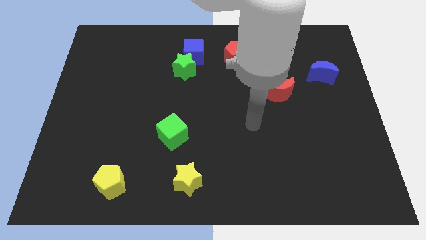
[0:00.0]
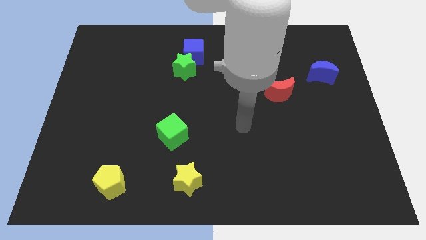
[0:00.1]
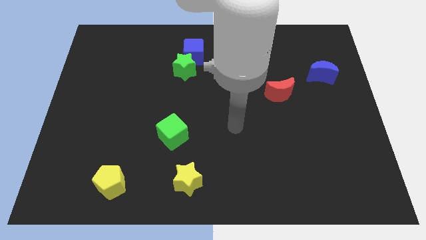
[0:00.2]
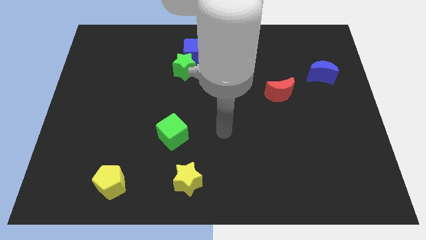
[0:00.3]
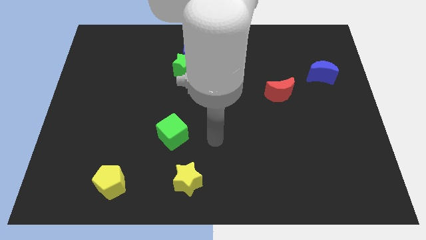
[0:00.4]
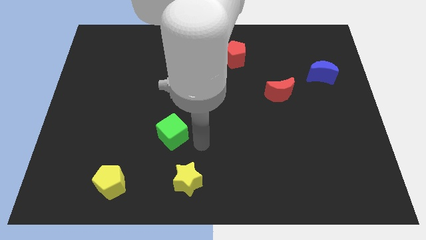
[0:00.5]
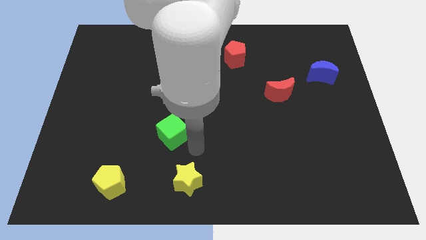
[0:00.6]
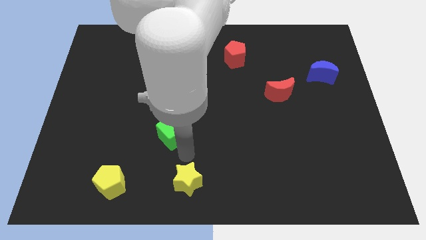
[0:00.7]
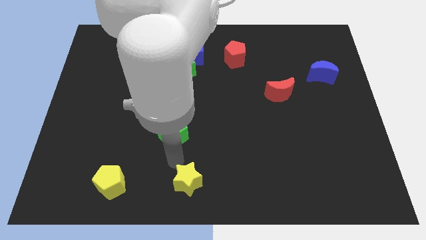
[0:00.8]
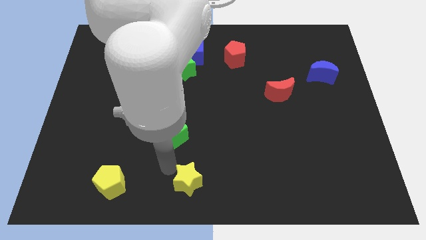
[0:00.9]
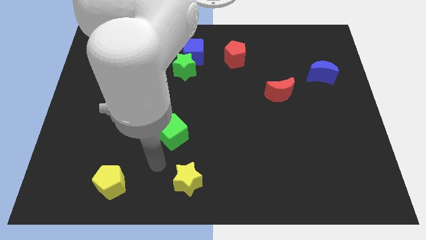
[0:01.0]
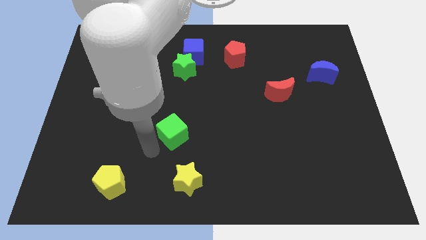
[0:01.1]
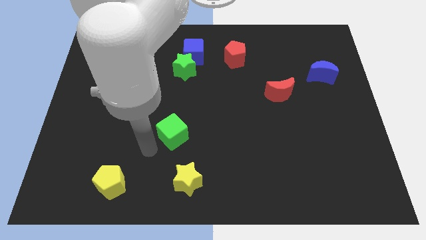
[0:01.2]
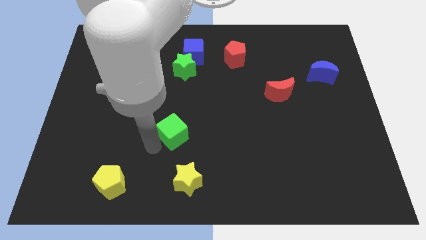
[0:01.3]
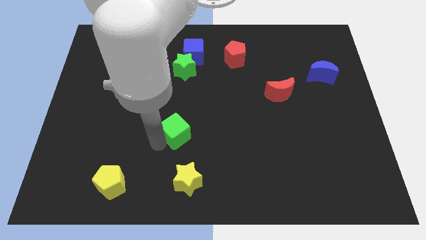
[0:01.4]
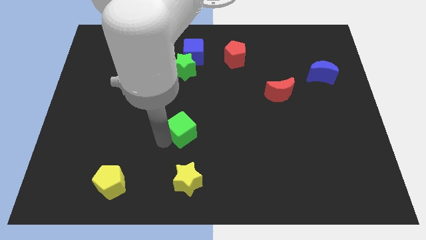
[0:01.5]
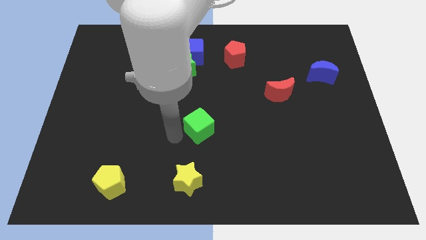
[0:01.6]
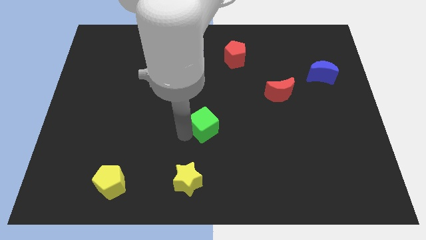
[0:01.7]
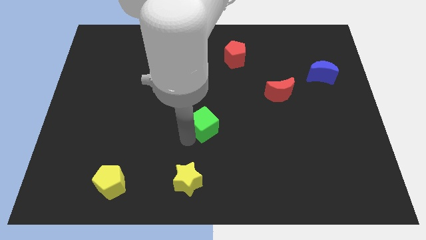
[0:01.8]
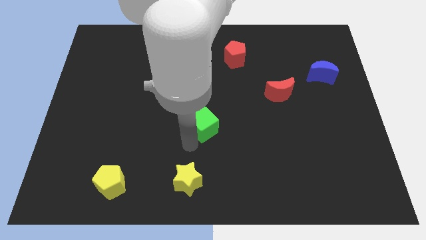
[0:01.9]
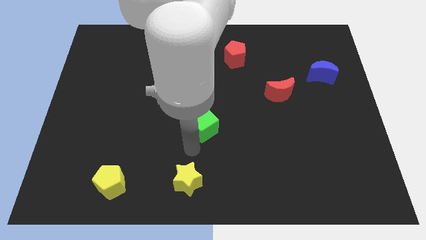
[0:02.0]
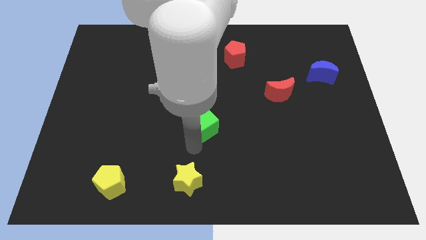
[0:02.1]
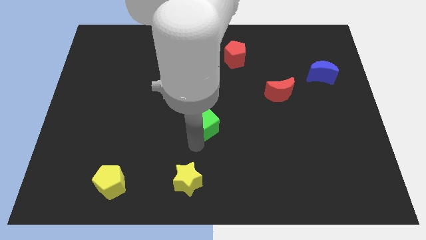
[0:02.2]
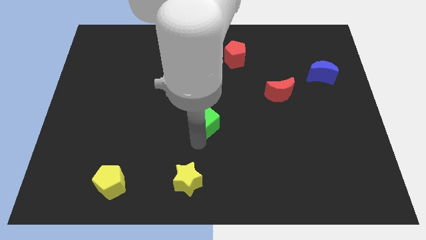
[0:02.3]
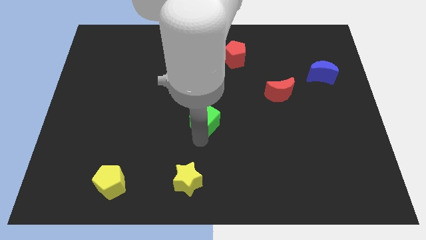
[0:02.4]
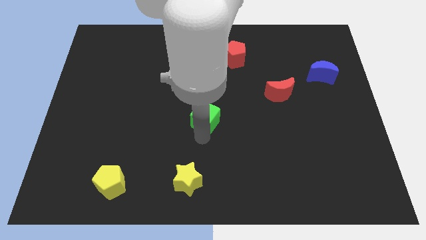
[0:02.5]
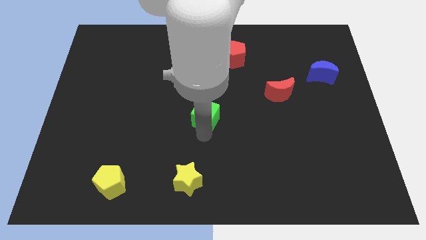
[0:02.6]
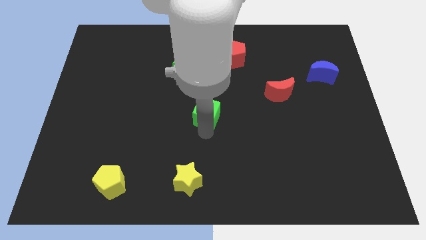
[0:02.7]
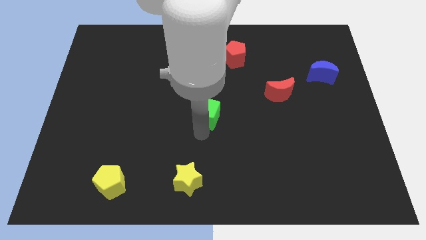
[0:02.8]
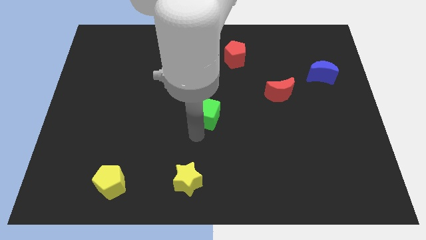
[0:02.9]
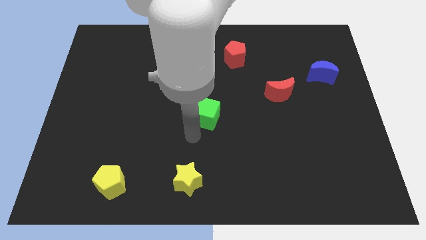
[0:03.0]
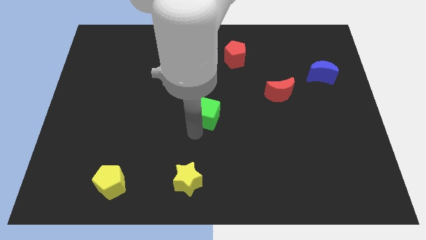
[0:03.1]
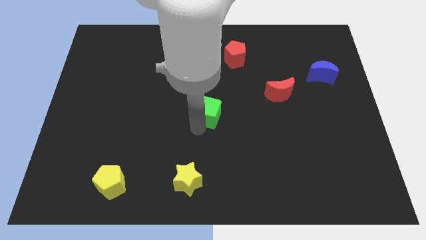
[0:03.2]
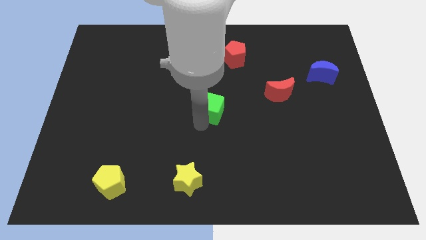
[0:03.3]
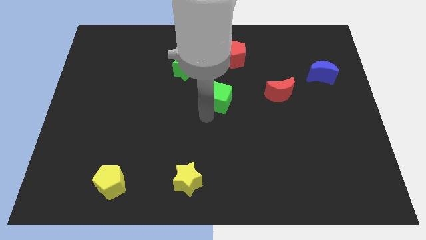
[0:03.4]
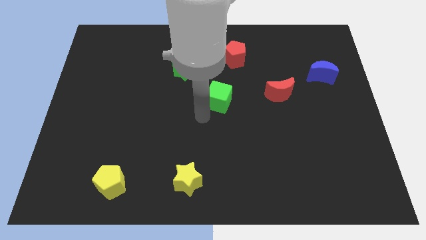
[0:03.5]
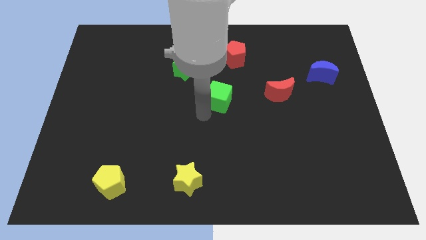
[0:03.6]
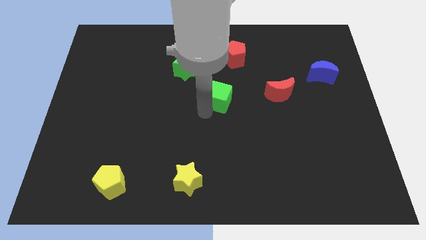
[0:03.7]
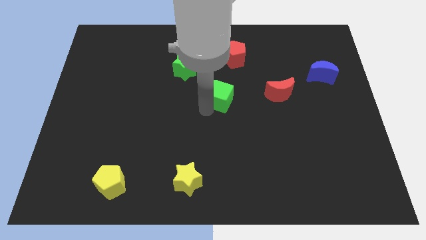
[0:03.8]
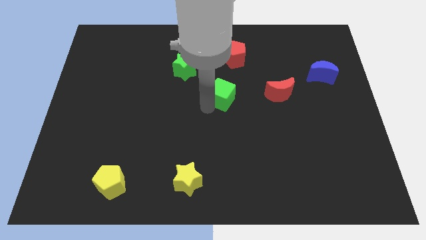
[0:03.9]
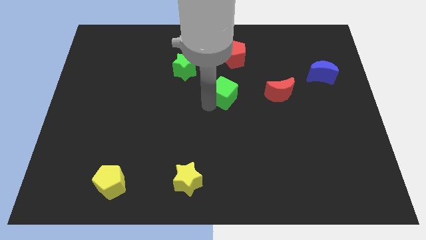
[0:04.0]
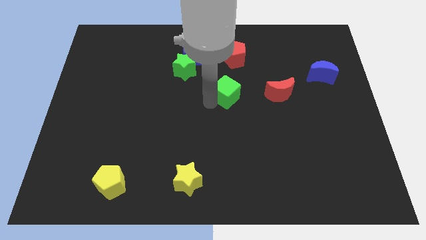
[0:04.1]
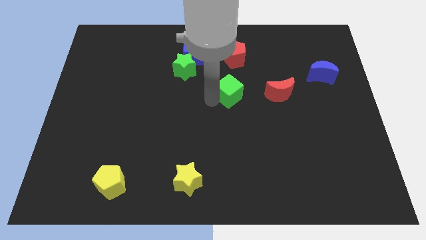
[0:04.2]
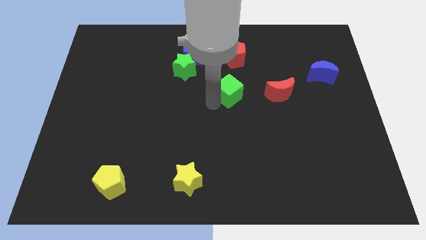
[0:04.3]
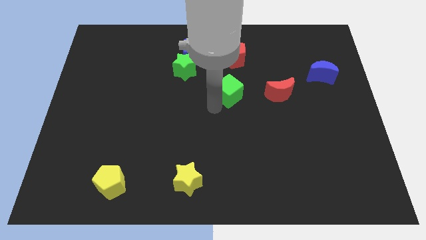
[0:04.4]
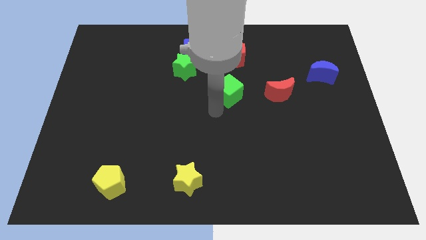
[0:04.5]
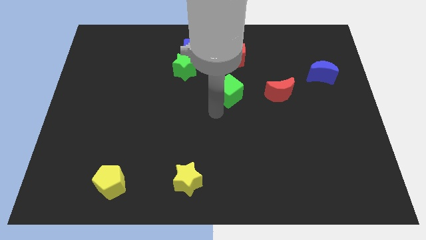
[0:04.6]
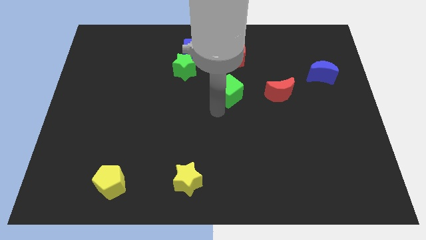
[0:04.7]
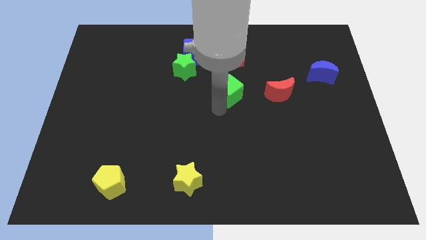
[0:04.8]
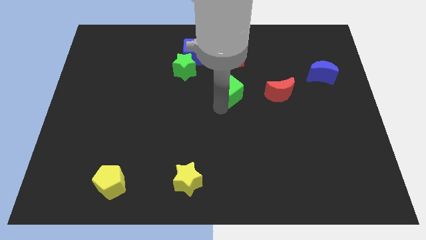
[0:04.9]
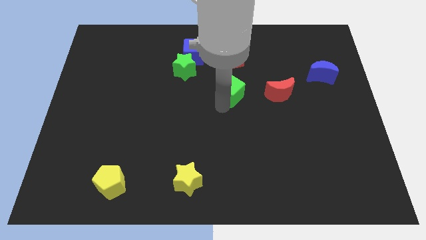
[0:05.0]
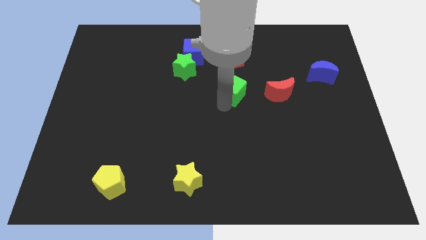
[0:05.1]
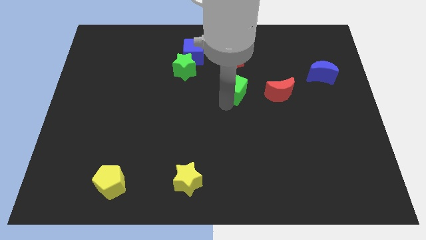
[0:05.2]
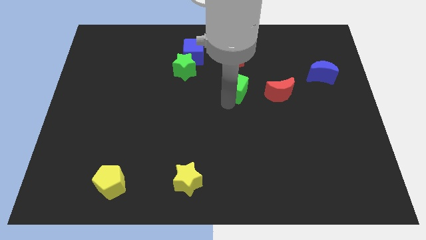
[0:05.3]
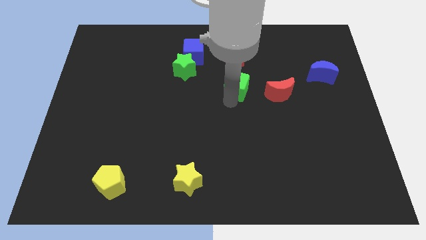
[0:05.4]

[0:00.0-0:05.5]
move the green cube up and to the right diagonally

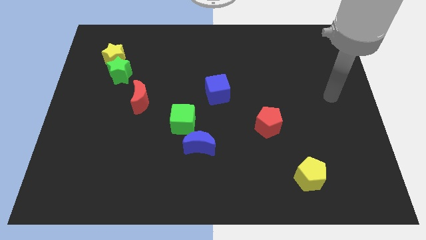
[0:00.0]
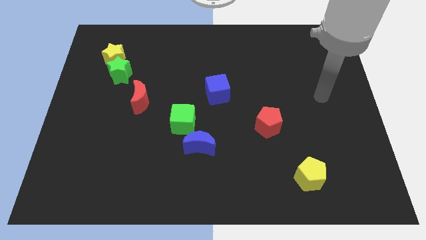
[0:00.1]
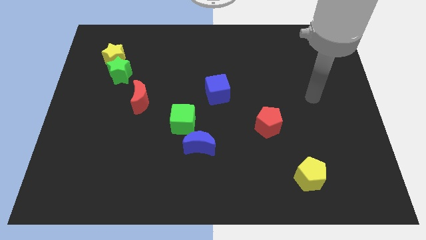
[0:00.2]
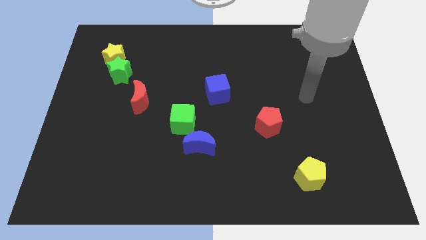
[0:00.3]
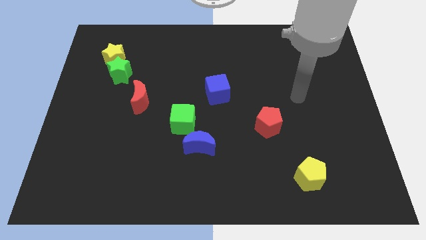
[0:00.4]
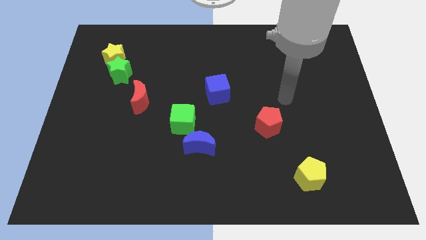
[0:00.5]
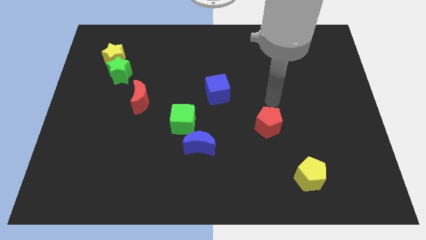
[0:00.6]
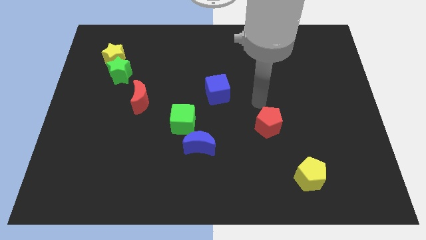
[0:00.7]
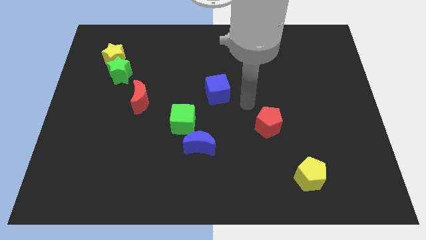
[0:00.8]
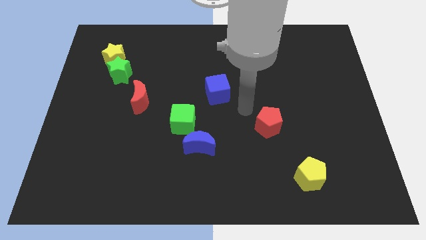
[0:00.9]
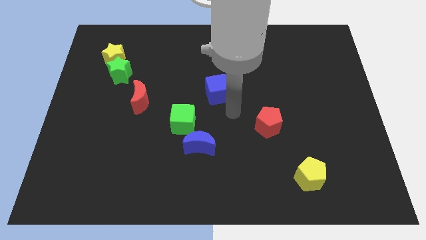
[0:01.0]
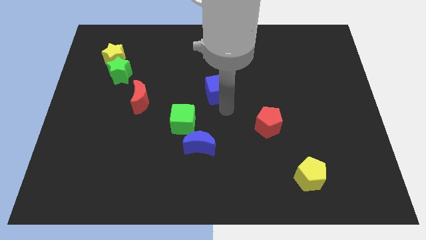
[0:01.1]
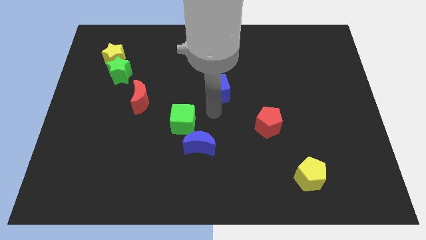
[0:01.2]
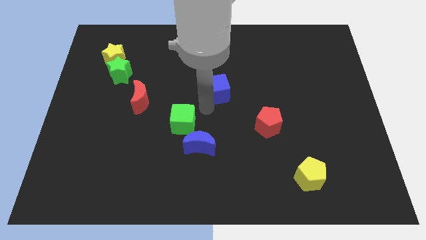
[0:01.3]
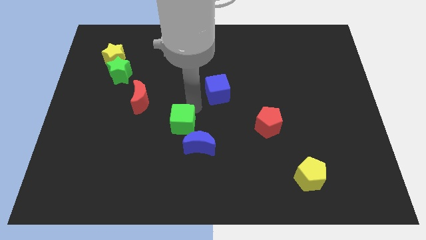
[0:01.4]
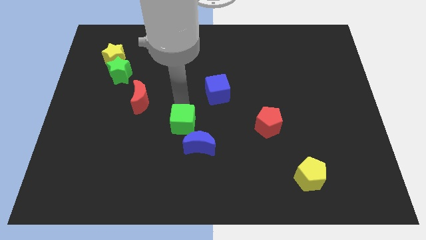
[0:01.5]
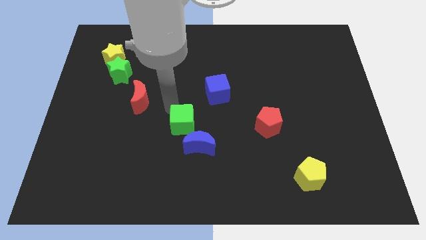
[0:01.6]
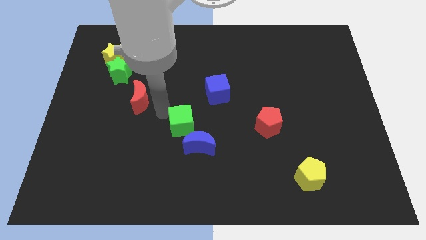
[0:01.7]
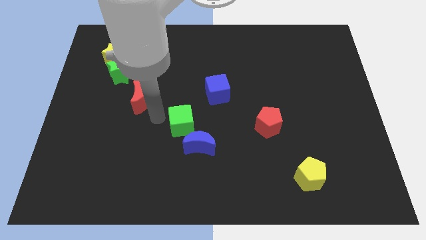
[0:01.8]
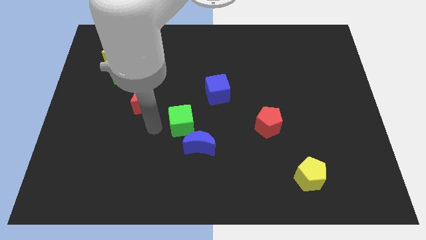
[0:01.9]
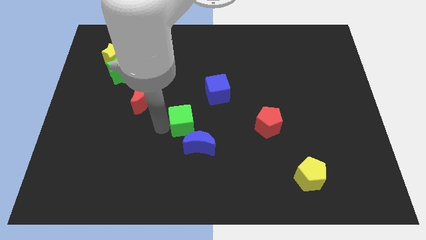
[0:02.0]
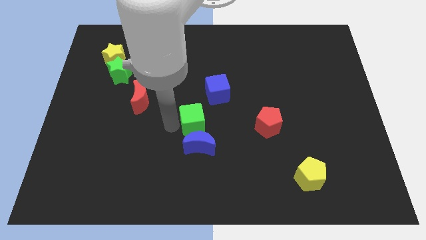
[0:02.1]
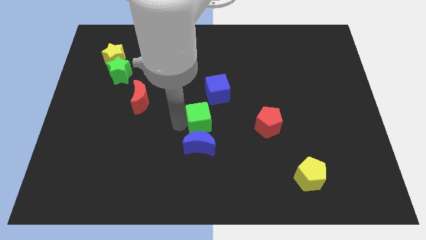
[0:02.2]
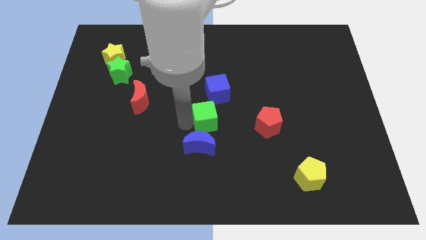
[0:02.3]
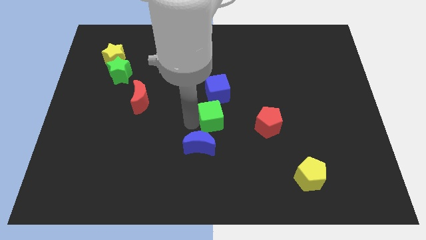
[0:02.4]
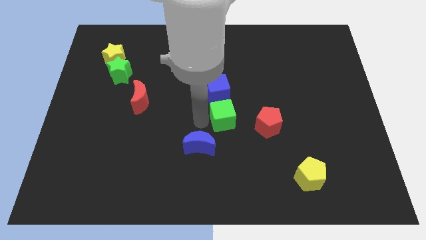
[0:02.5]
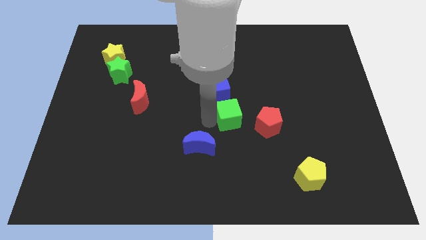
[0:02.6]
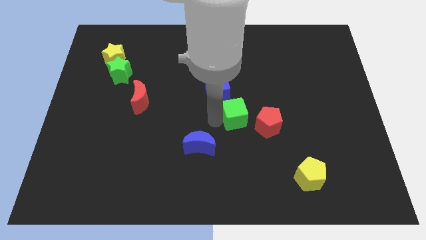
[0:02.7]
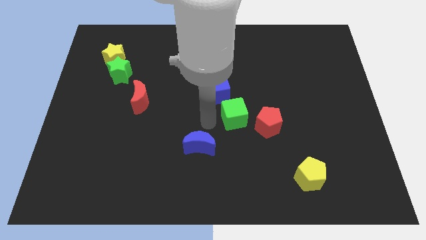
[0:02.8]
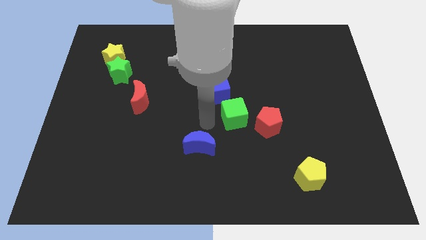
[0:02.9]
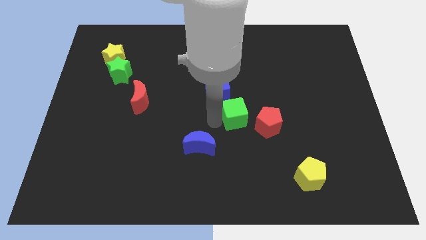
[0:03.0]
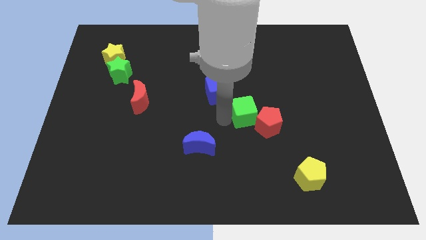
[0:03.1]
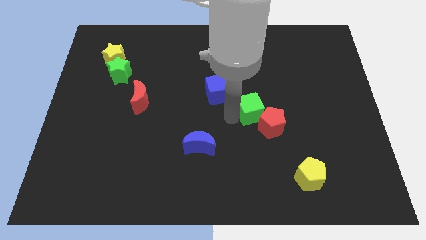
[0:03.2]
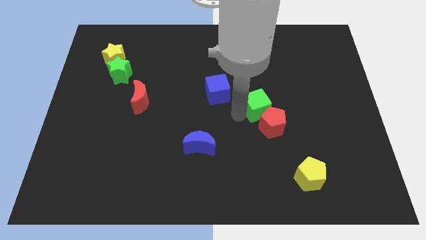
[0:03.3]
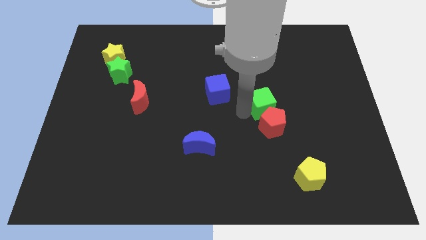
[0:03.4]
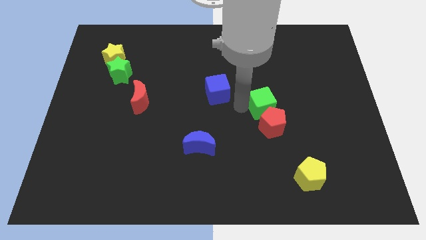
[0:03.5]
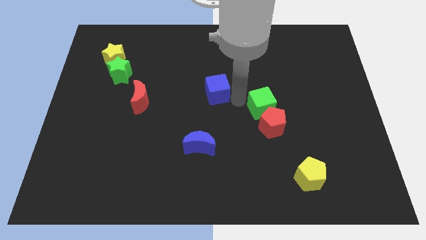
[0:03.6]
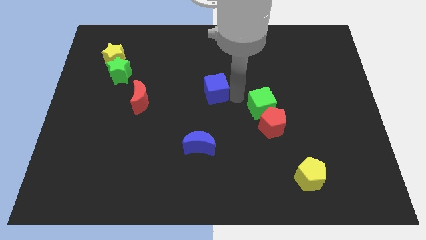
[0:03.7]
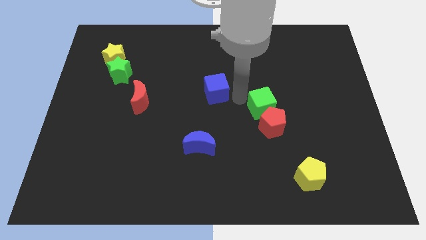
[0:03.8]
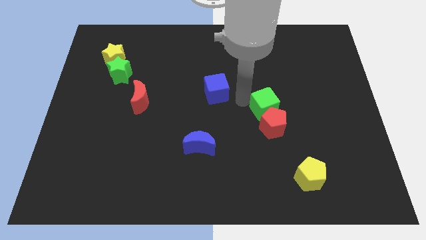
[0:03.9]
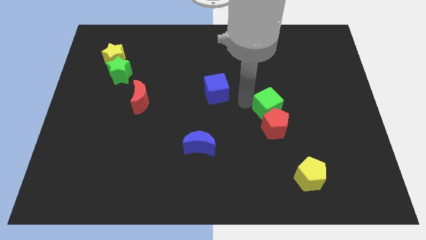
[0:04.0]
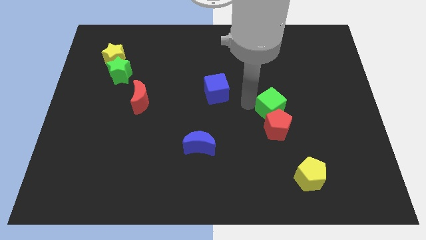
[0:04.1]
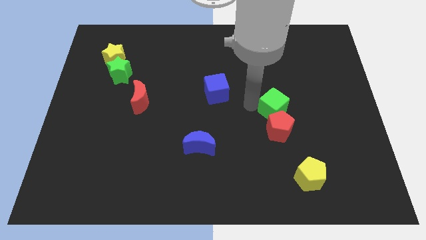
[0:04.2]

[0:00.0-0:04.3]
push the green cube right
